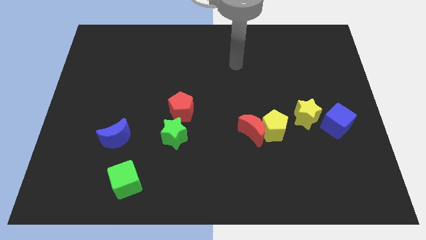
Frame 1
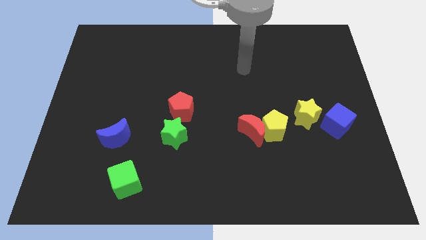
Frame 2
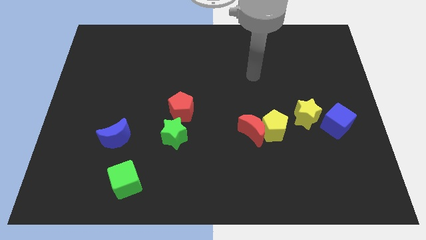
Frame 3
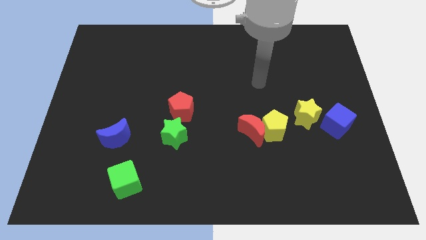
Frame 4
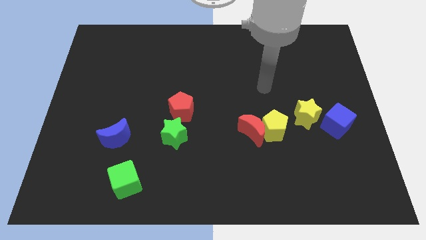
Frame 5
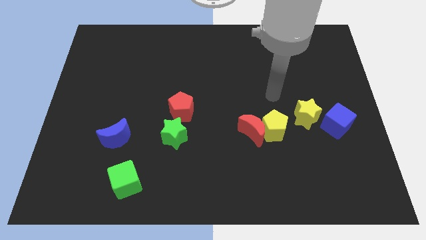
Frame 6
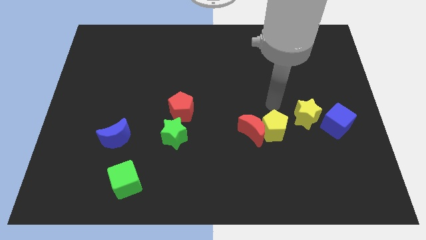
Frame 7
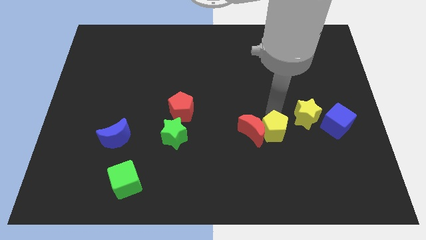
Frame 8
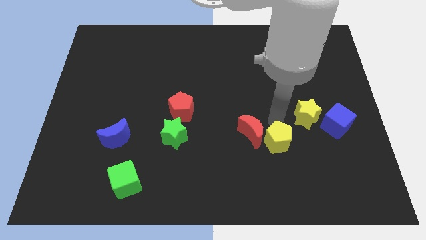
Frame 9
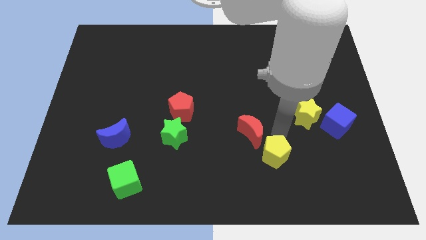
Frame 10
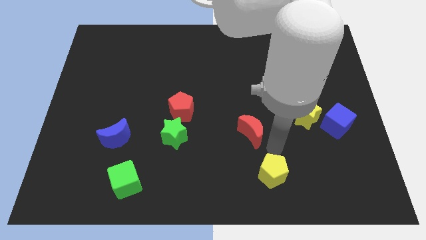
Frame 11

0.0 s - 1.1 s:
separate the red moon from the yellow pentagon

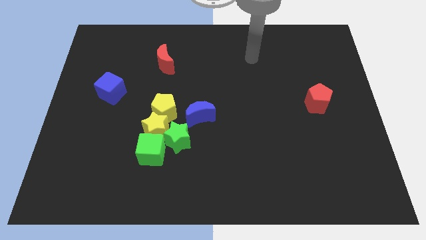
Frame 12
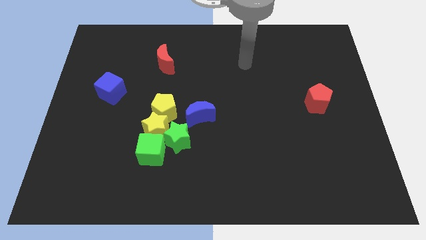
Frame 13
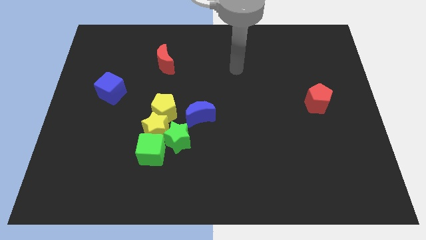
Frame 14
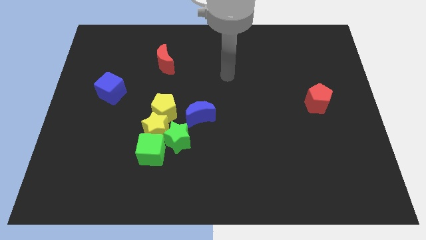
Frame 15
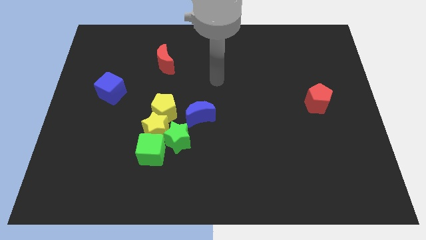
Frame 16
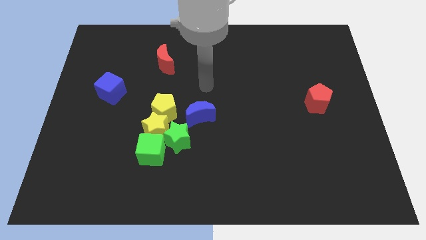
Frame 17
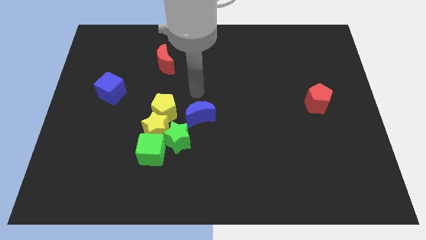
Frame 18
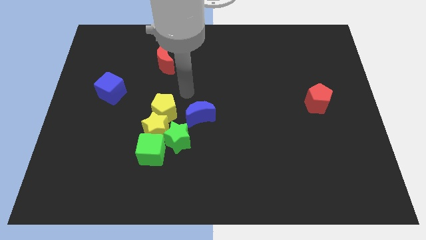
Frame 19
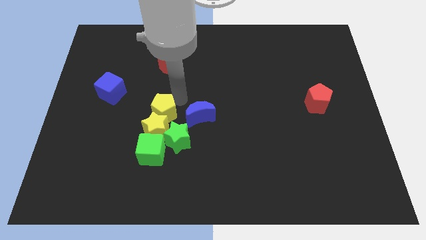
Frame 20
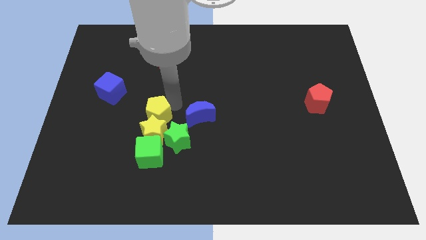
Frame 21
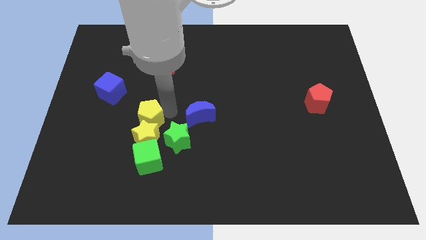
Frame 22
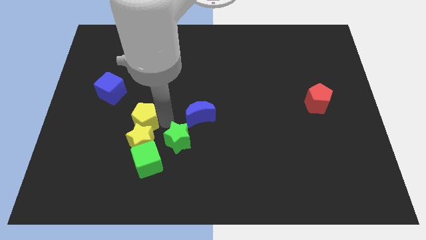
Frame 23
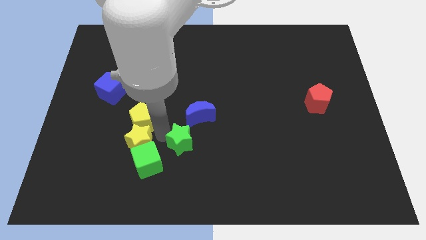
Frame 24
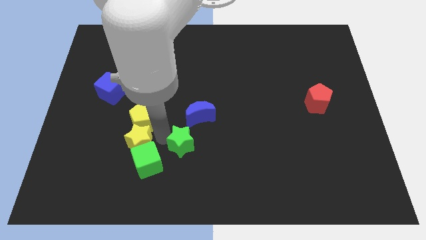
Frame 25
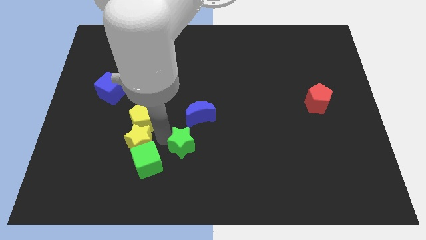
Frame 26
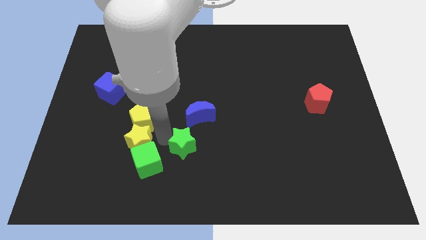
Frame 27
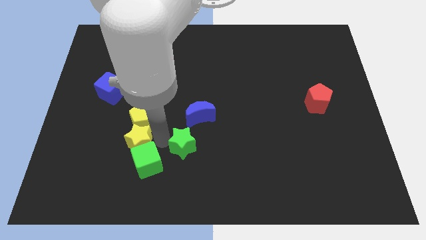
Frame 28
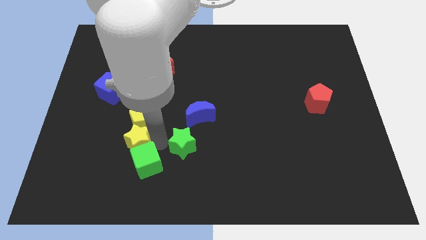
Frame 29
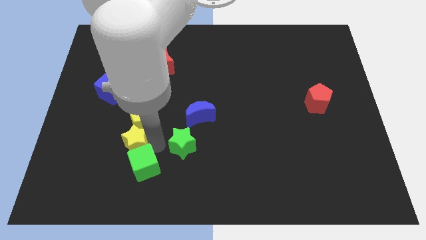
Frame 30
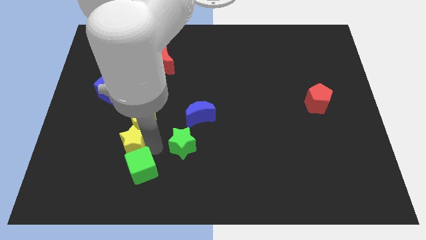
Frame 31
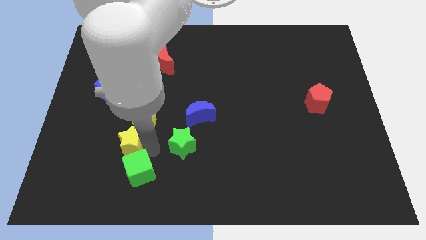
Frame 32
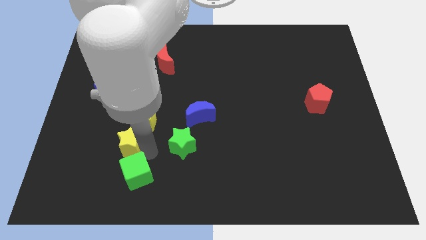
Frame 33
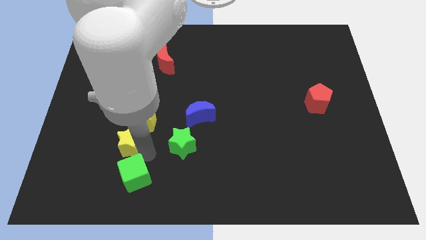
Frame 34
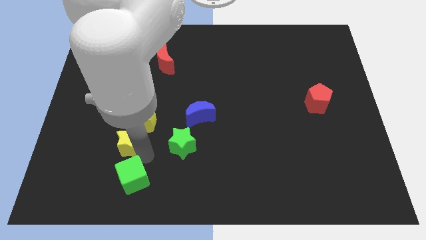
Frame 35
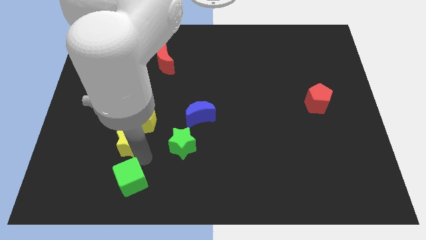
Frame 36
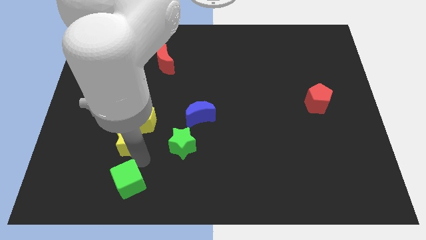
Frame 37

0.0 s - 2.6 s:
move the green cube away from the yellow star and green star

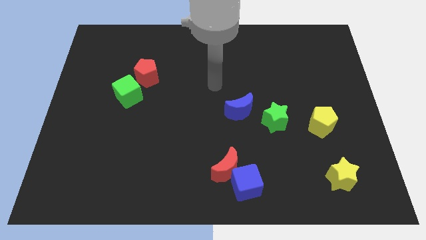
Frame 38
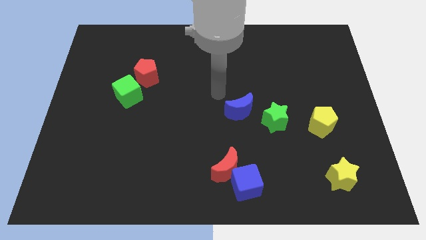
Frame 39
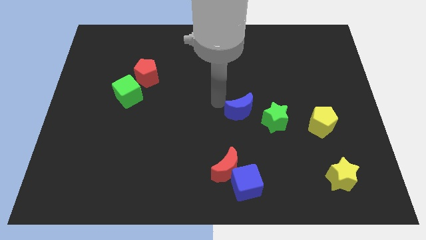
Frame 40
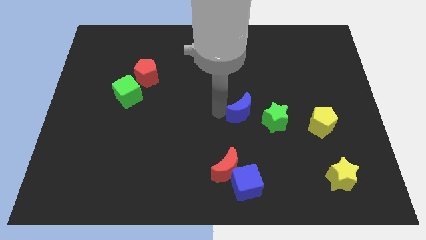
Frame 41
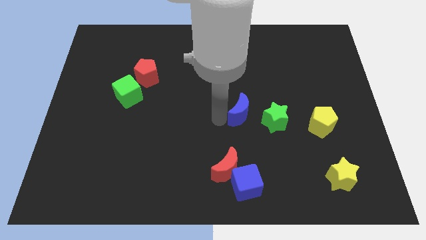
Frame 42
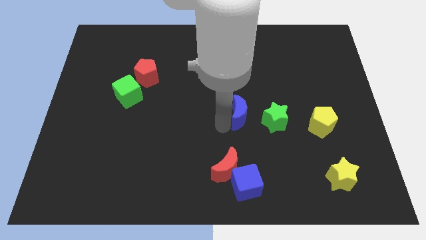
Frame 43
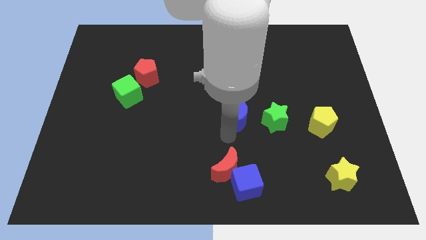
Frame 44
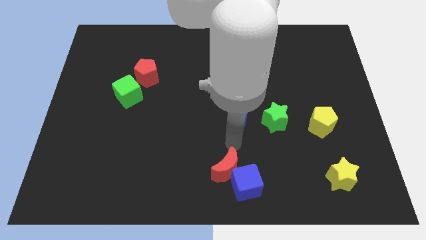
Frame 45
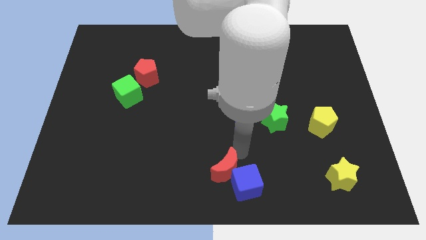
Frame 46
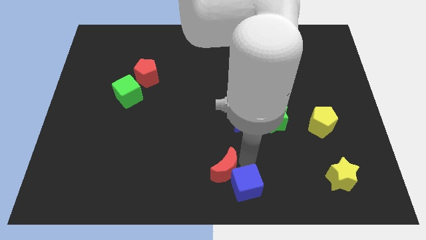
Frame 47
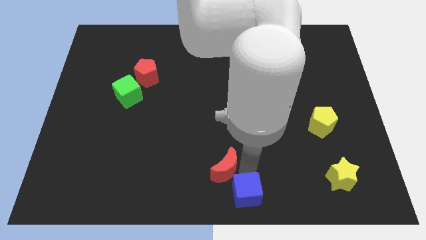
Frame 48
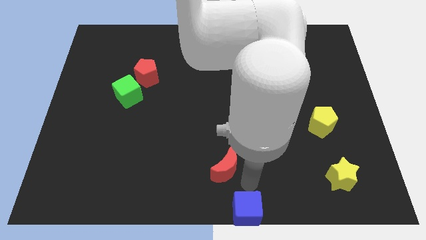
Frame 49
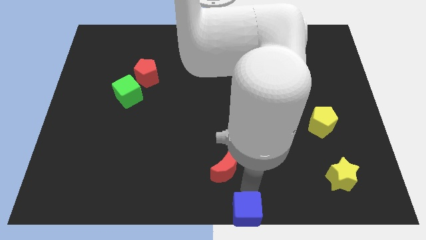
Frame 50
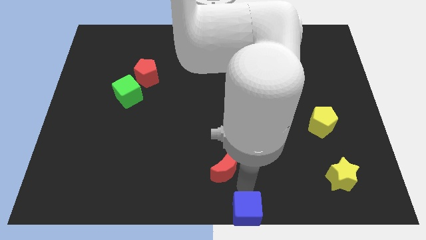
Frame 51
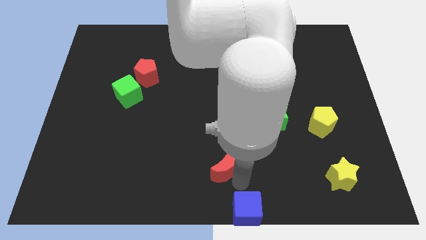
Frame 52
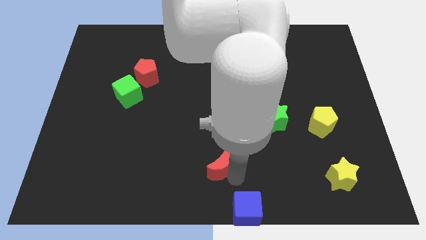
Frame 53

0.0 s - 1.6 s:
separate the red moon from the blue cube

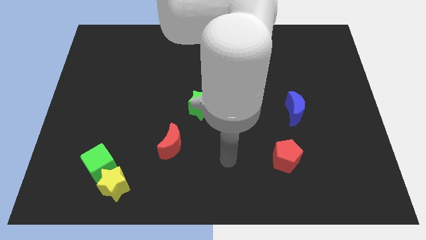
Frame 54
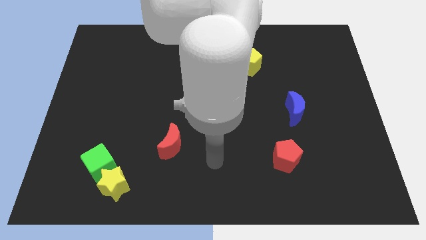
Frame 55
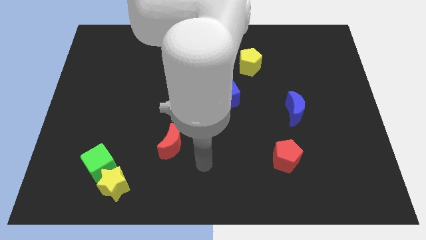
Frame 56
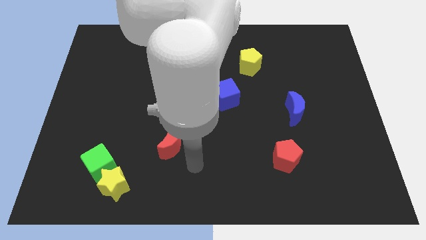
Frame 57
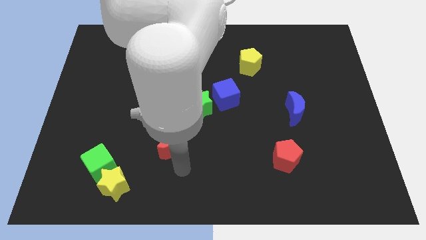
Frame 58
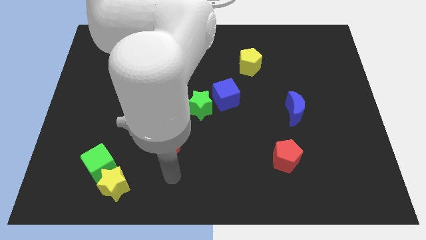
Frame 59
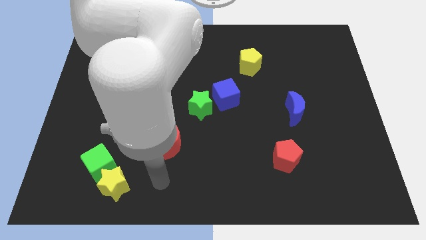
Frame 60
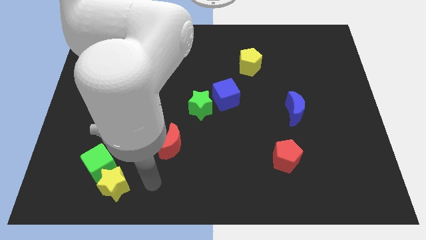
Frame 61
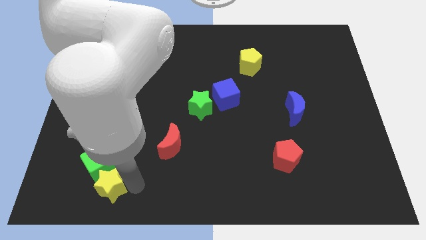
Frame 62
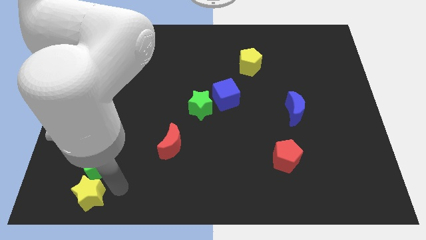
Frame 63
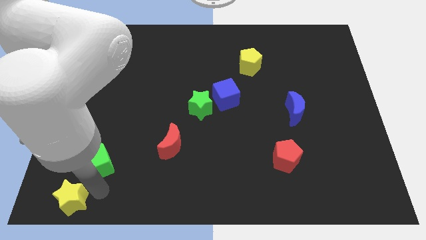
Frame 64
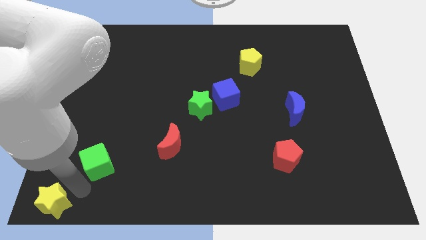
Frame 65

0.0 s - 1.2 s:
move the green cube away from the yellow star

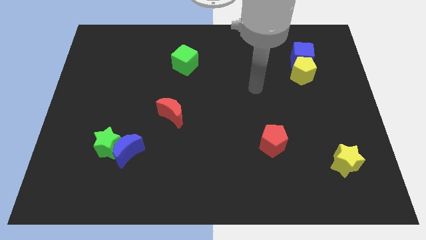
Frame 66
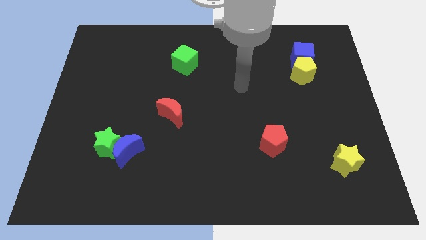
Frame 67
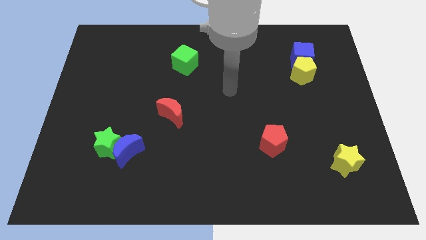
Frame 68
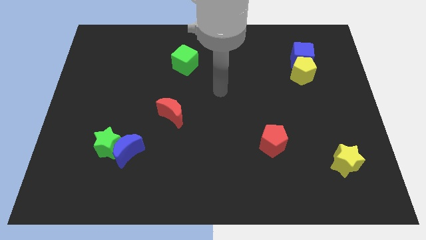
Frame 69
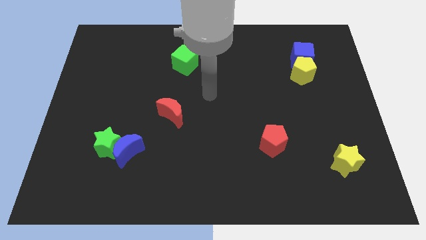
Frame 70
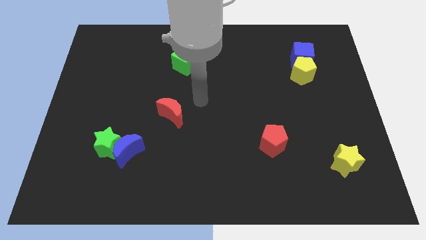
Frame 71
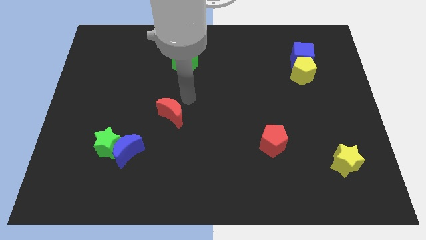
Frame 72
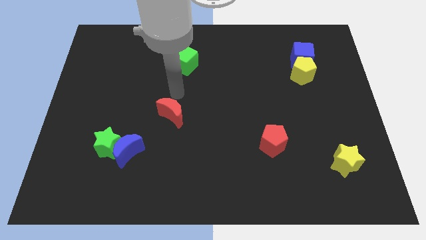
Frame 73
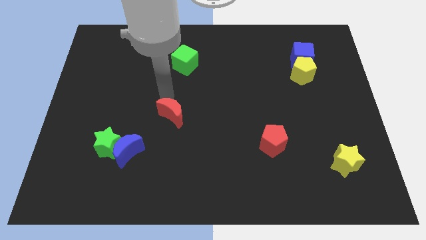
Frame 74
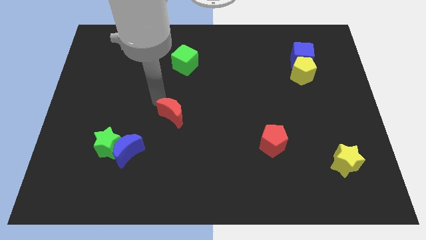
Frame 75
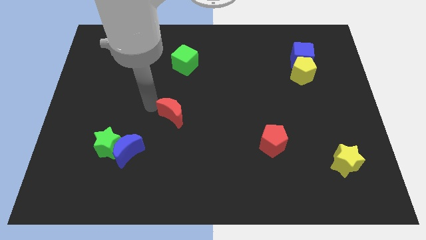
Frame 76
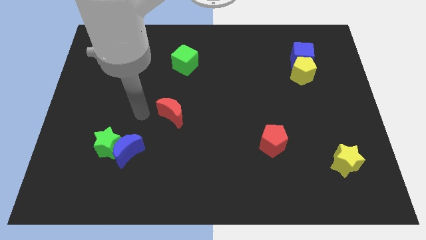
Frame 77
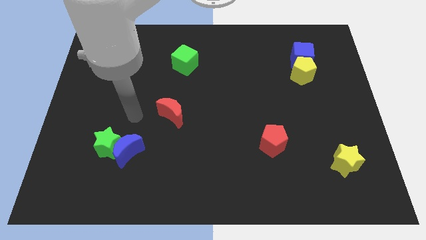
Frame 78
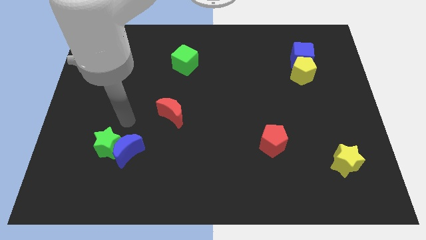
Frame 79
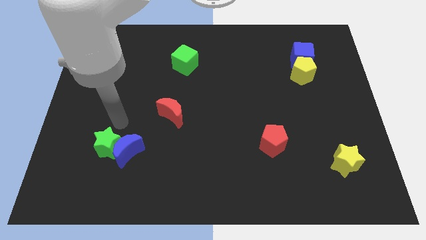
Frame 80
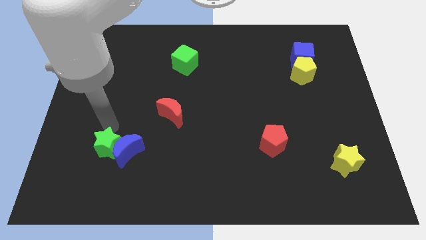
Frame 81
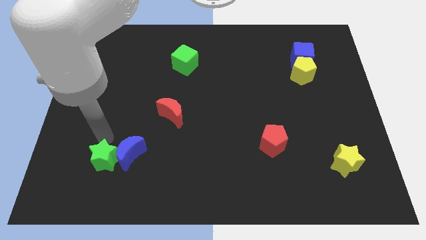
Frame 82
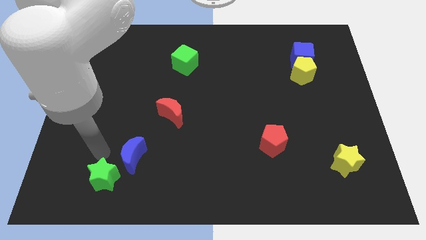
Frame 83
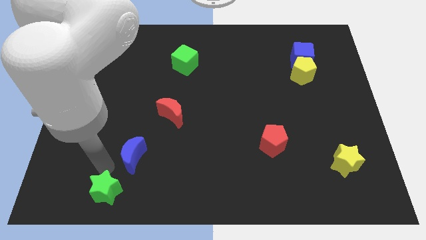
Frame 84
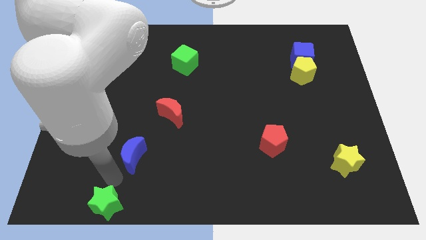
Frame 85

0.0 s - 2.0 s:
move the blue moon away from the green star

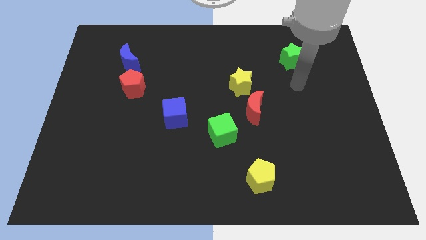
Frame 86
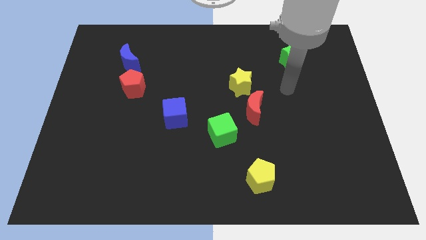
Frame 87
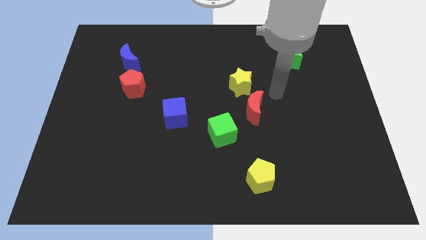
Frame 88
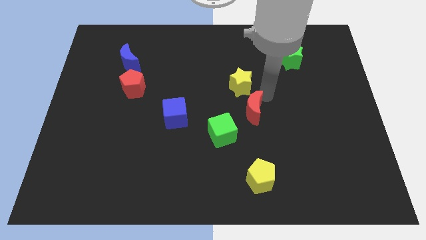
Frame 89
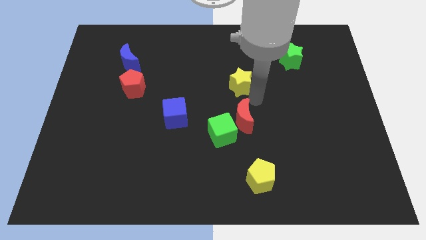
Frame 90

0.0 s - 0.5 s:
pull the yellow star apart from the red moon

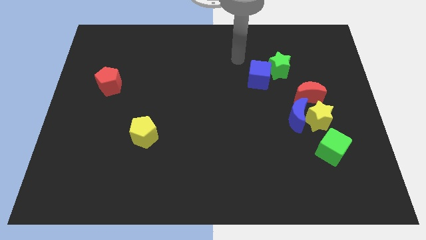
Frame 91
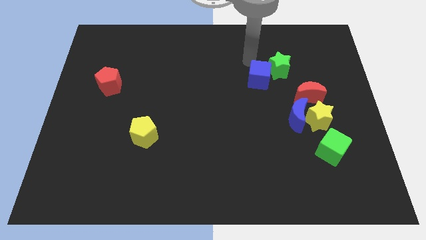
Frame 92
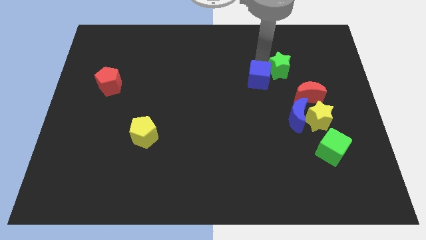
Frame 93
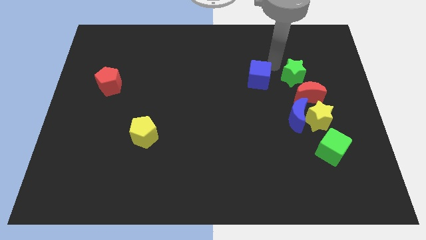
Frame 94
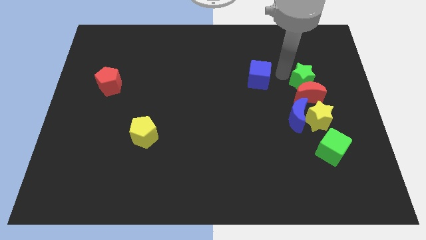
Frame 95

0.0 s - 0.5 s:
separate the blue cube from the green star

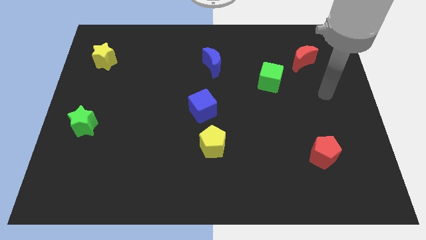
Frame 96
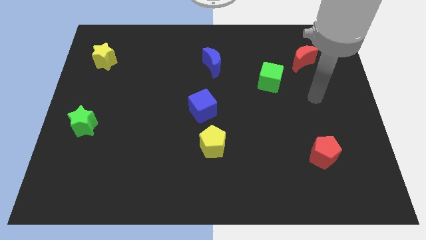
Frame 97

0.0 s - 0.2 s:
pull the blue cube apart from the yellow pentagon
